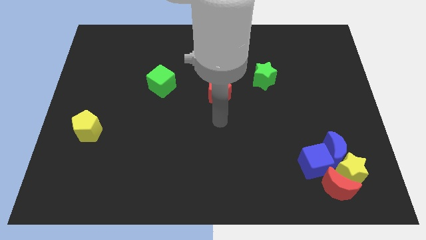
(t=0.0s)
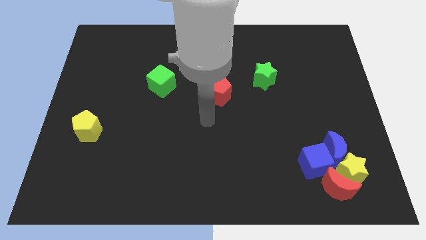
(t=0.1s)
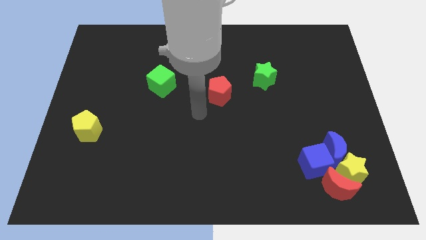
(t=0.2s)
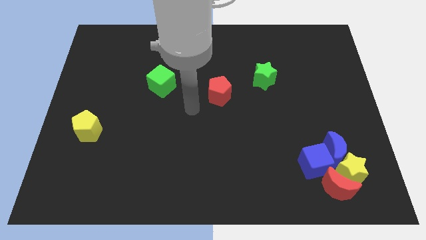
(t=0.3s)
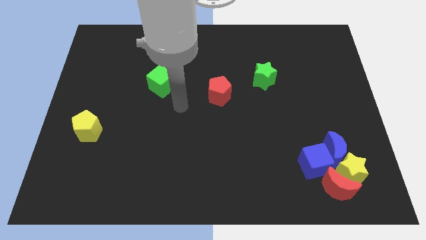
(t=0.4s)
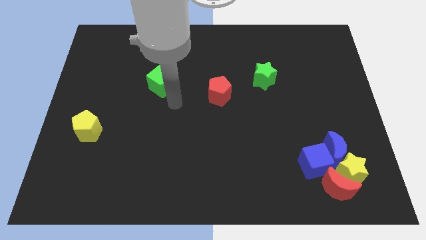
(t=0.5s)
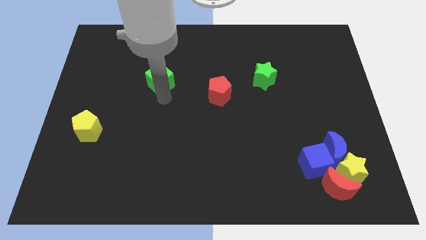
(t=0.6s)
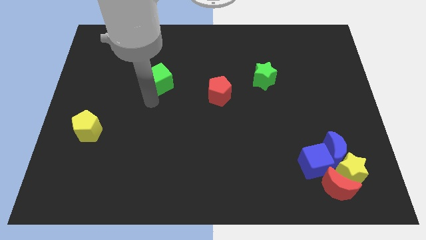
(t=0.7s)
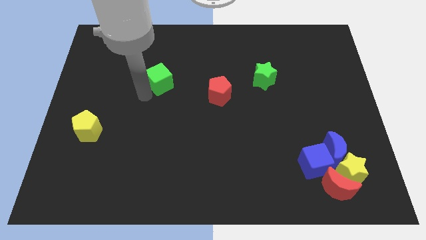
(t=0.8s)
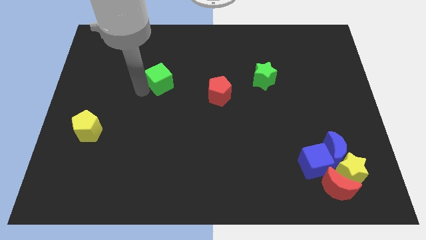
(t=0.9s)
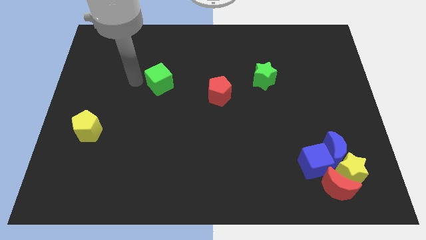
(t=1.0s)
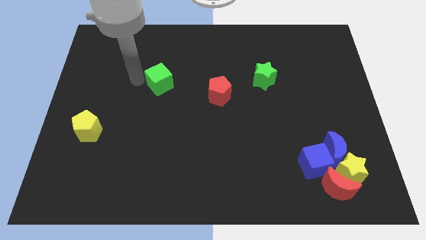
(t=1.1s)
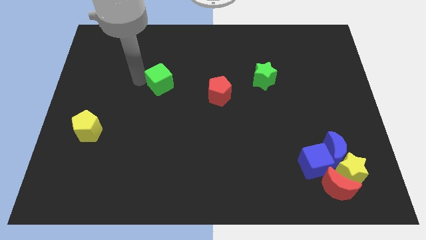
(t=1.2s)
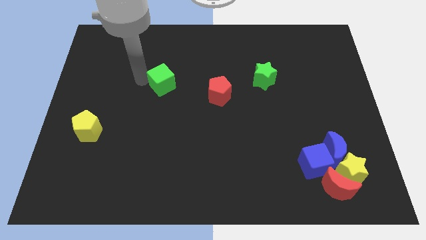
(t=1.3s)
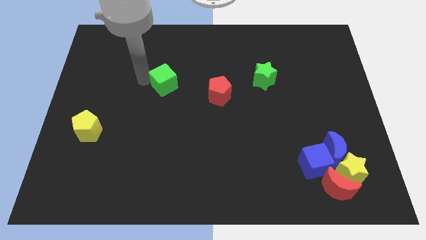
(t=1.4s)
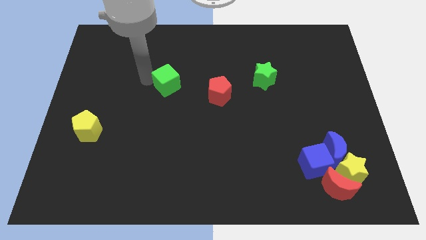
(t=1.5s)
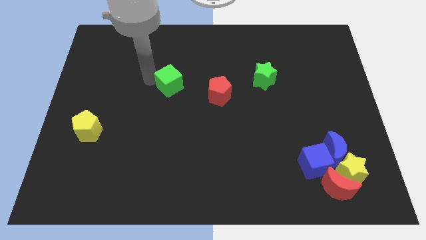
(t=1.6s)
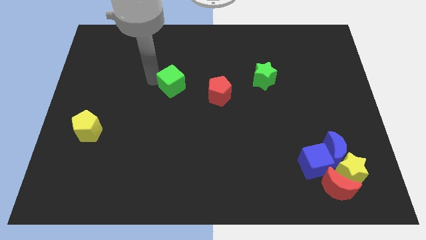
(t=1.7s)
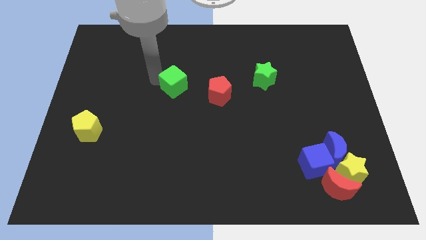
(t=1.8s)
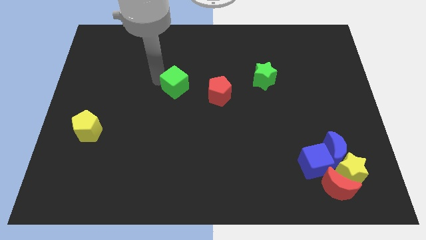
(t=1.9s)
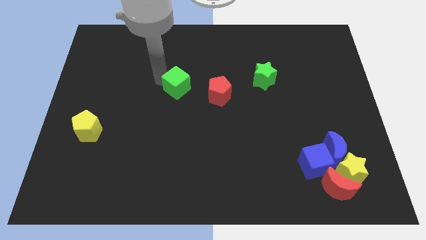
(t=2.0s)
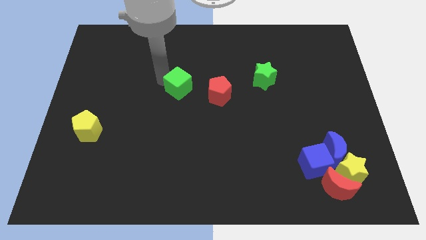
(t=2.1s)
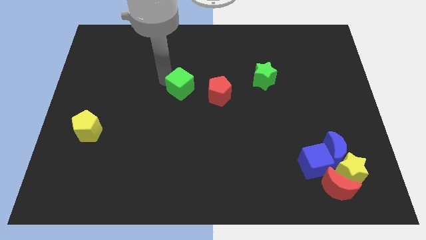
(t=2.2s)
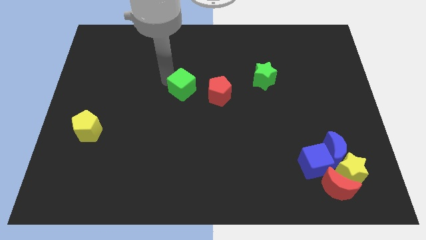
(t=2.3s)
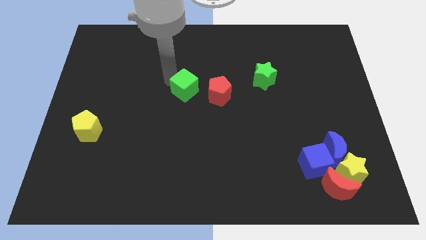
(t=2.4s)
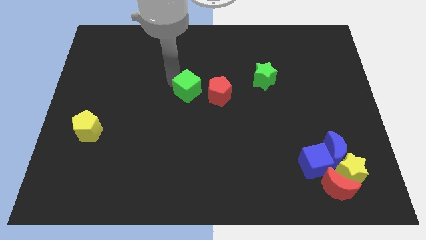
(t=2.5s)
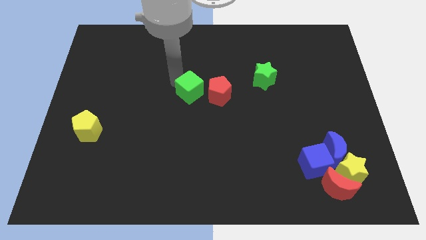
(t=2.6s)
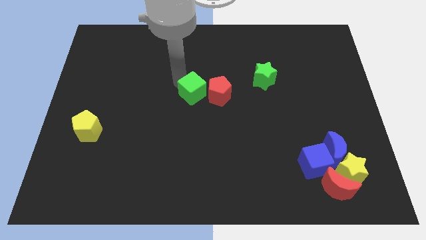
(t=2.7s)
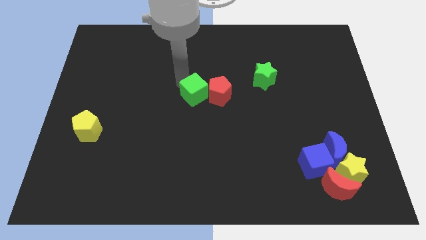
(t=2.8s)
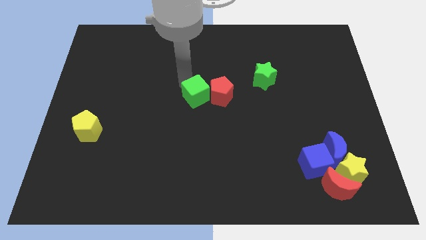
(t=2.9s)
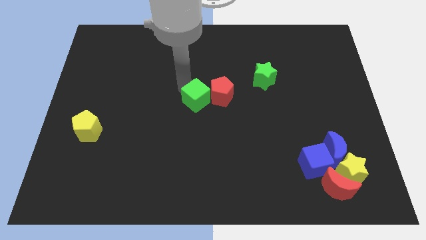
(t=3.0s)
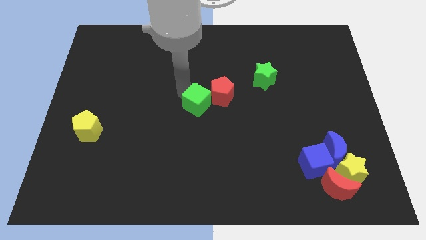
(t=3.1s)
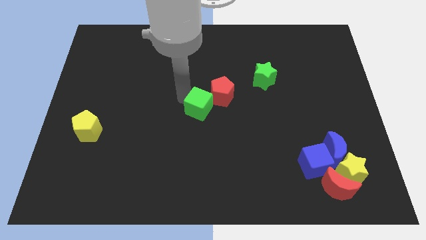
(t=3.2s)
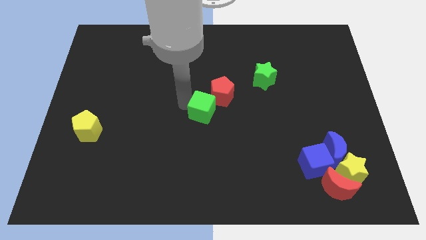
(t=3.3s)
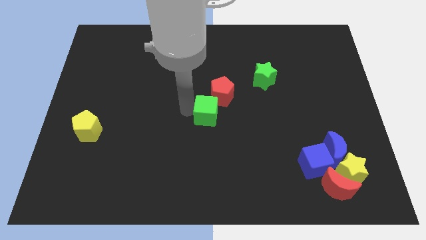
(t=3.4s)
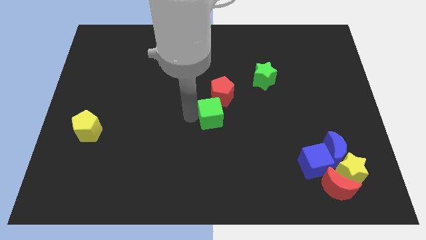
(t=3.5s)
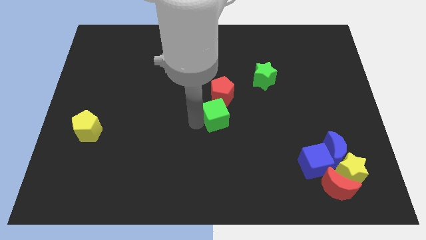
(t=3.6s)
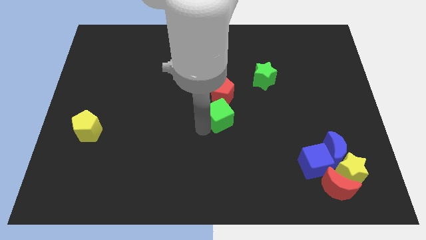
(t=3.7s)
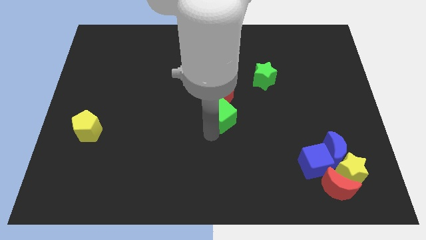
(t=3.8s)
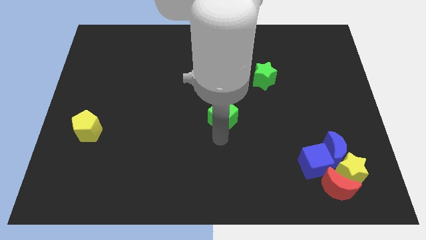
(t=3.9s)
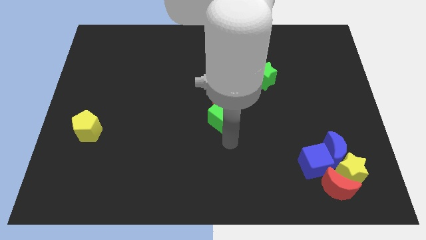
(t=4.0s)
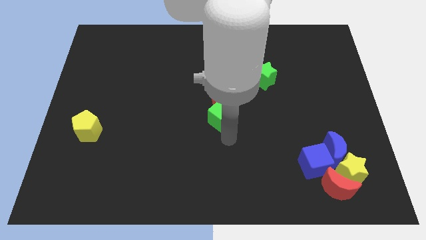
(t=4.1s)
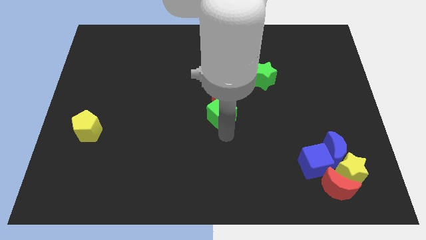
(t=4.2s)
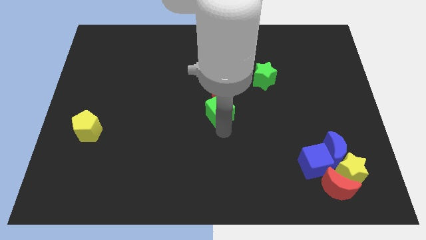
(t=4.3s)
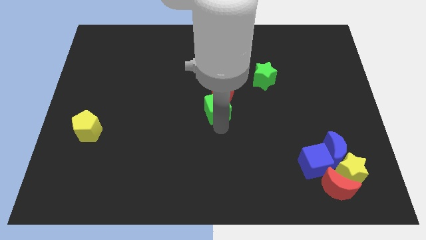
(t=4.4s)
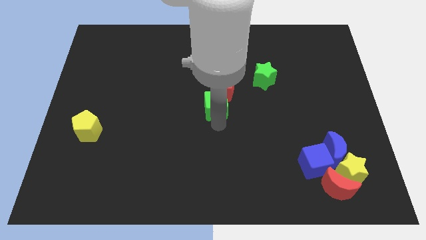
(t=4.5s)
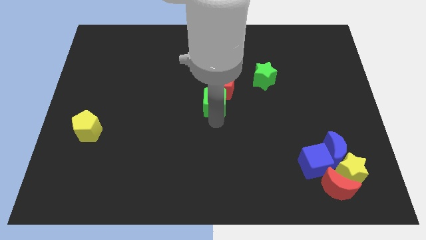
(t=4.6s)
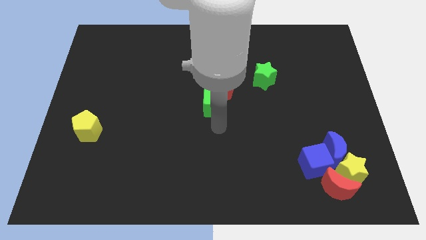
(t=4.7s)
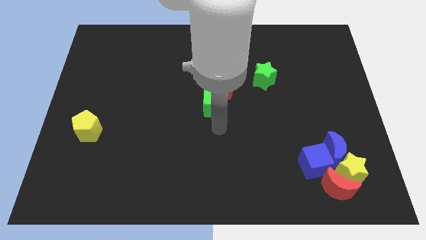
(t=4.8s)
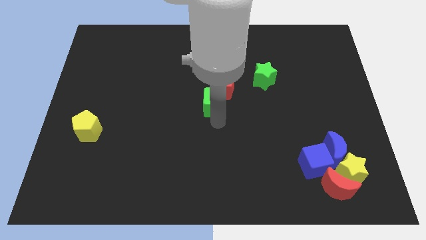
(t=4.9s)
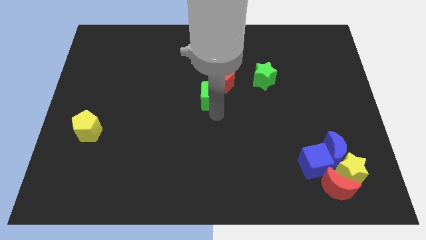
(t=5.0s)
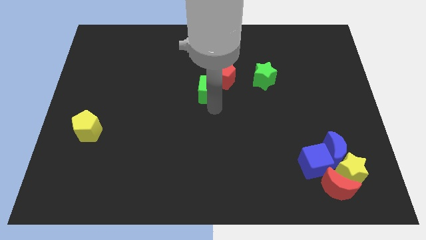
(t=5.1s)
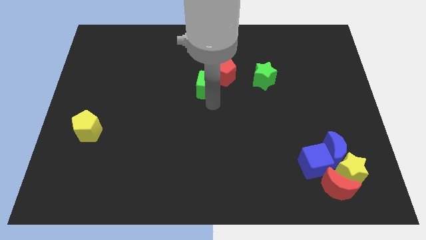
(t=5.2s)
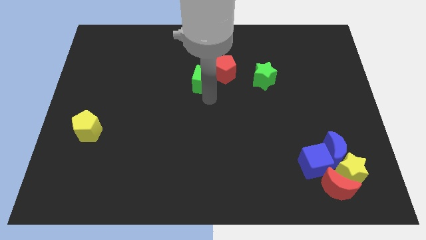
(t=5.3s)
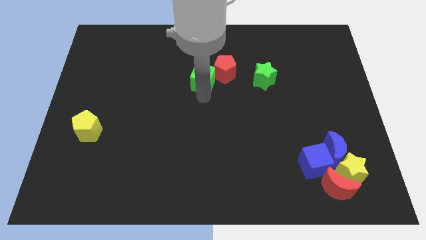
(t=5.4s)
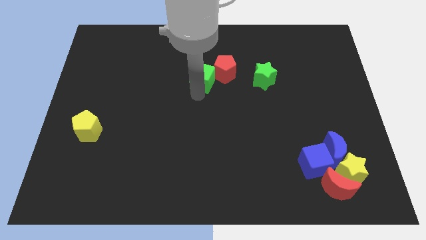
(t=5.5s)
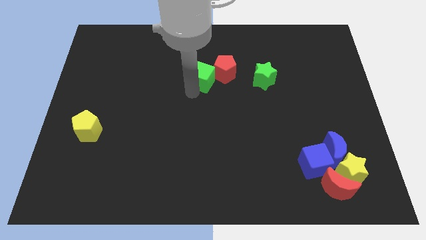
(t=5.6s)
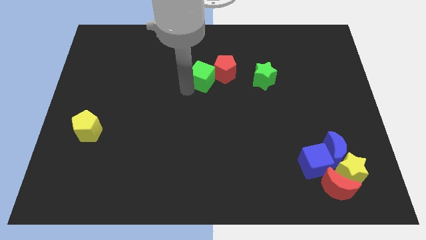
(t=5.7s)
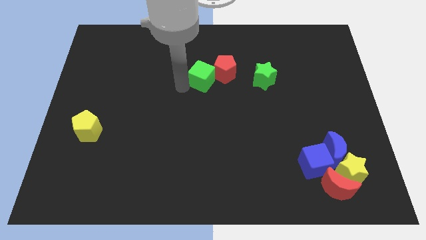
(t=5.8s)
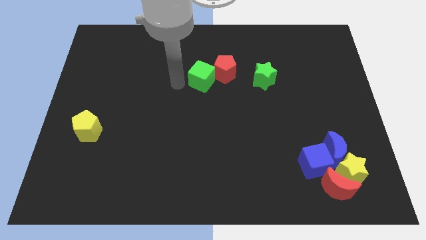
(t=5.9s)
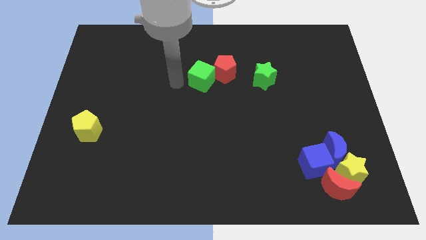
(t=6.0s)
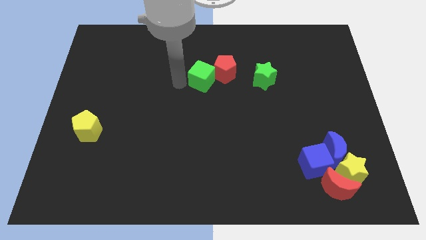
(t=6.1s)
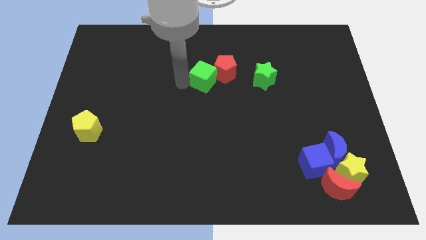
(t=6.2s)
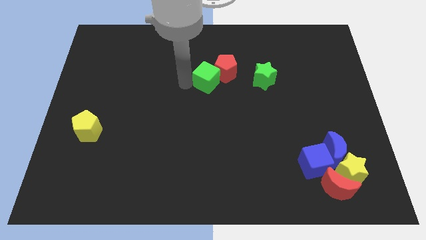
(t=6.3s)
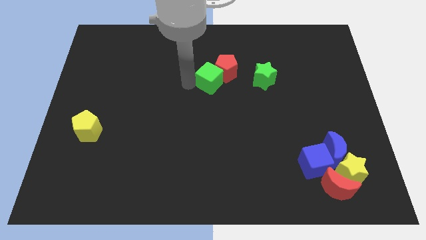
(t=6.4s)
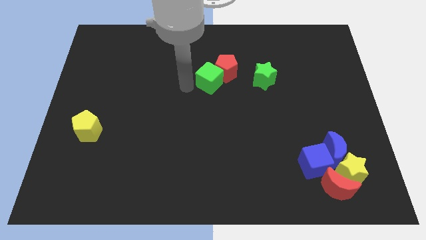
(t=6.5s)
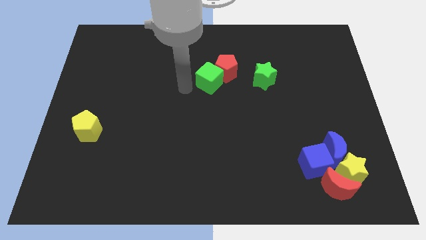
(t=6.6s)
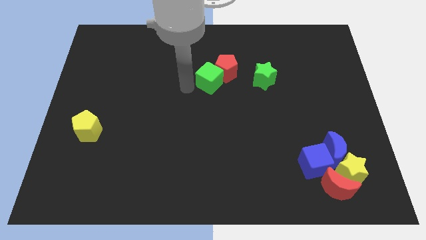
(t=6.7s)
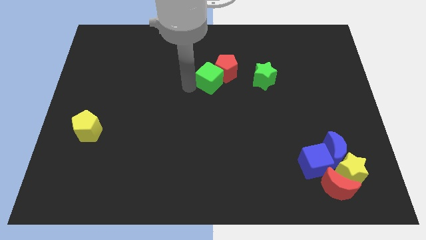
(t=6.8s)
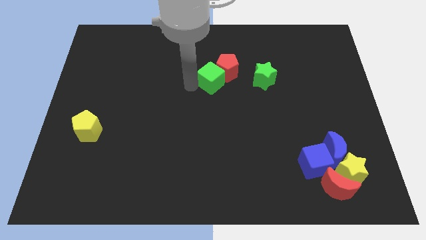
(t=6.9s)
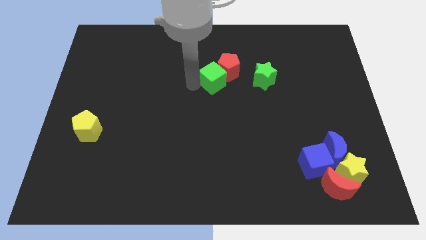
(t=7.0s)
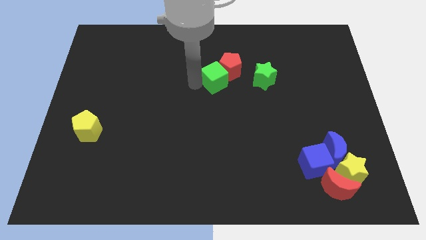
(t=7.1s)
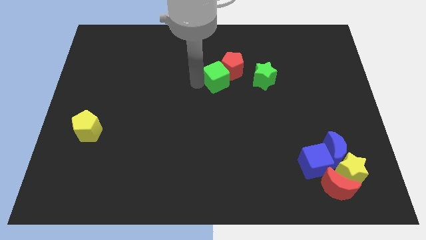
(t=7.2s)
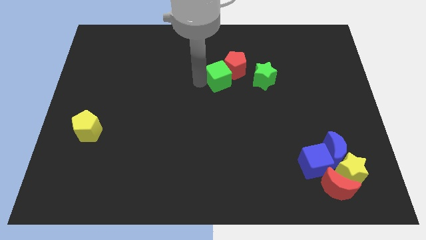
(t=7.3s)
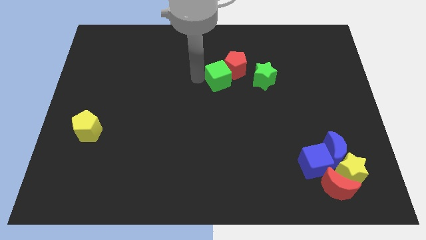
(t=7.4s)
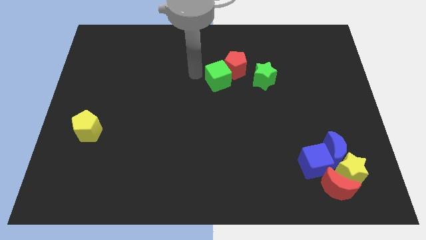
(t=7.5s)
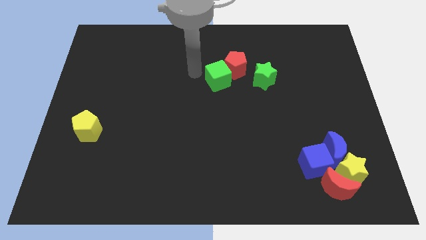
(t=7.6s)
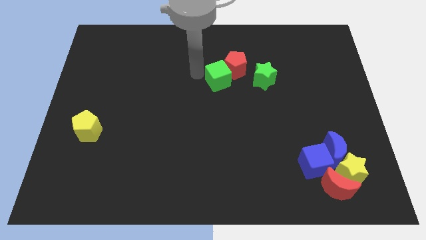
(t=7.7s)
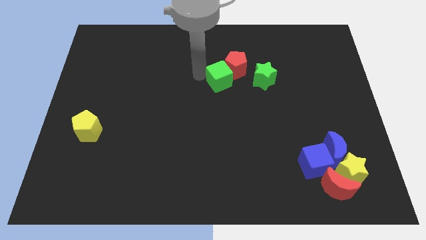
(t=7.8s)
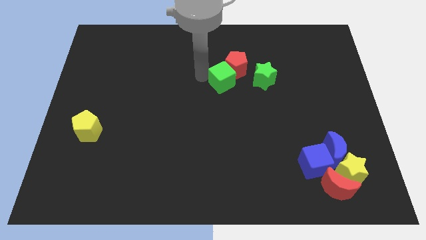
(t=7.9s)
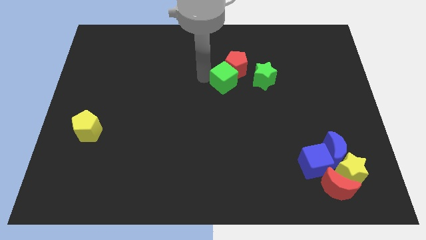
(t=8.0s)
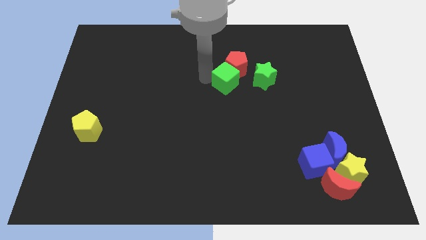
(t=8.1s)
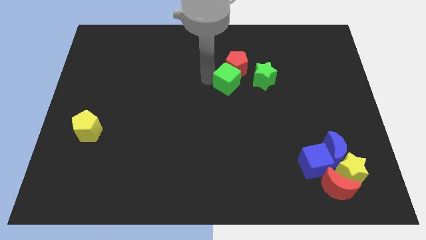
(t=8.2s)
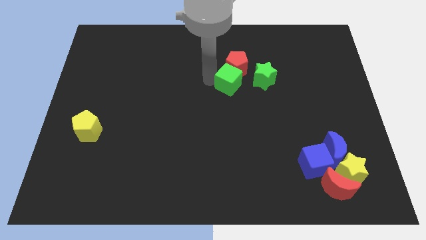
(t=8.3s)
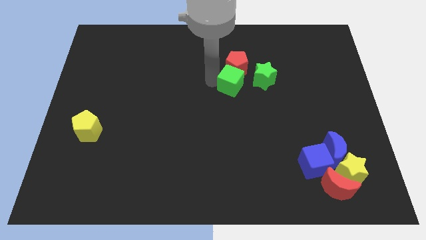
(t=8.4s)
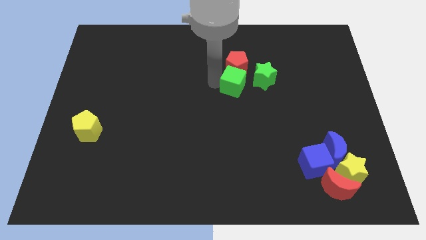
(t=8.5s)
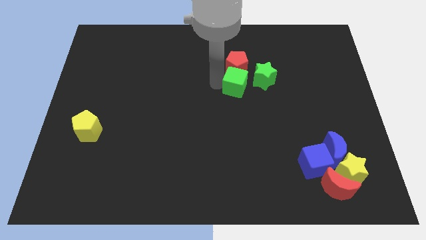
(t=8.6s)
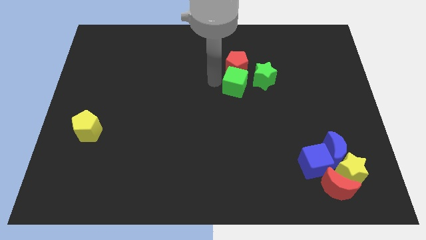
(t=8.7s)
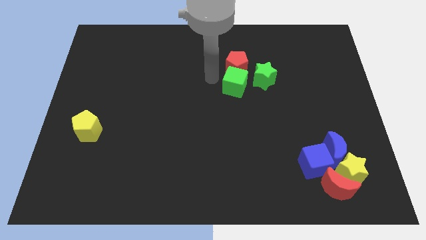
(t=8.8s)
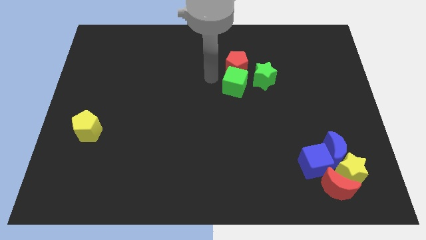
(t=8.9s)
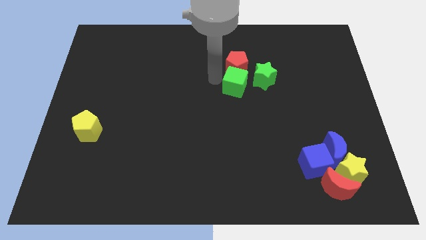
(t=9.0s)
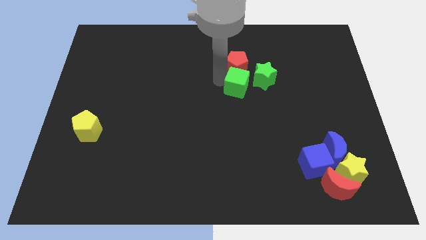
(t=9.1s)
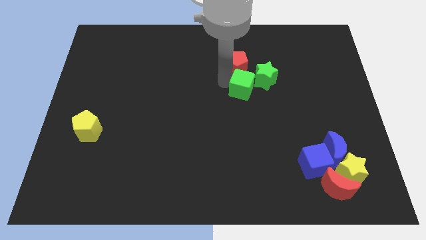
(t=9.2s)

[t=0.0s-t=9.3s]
move the green cube to the right
